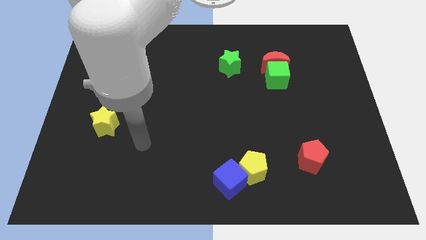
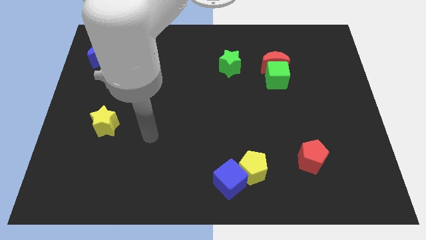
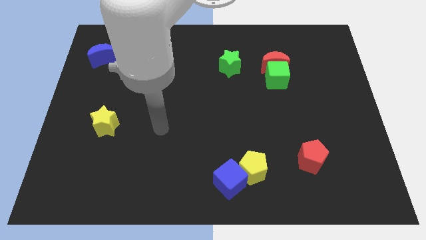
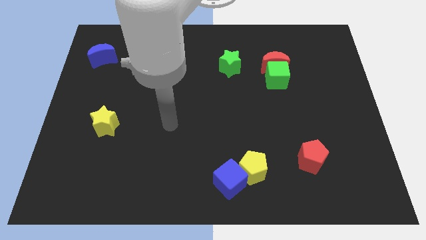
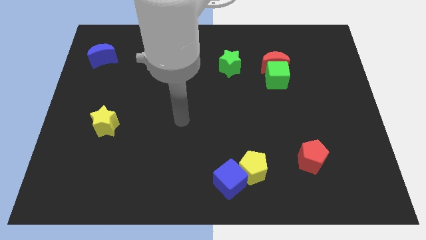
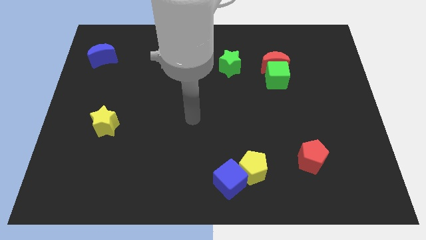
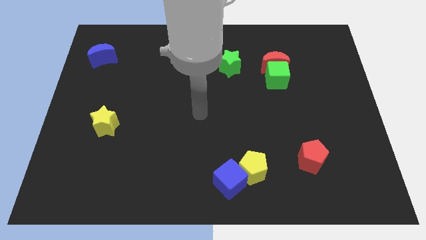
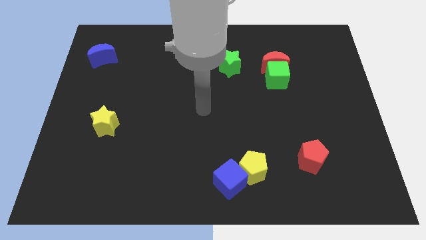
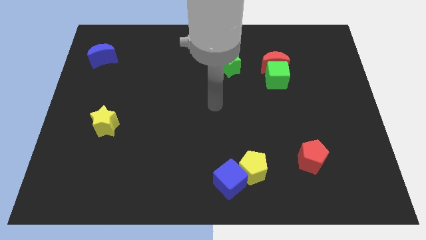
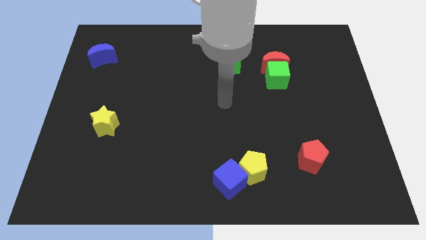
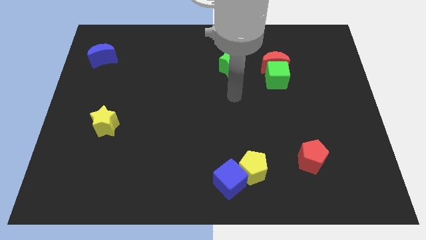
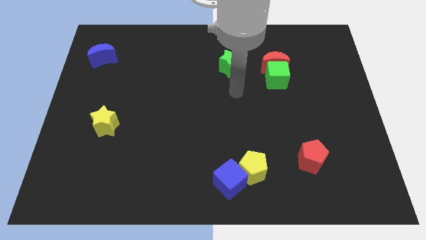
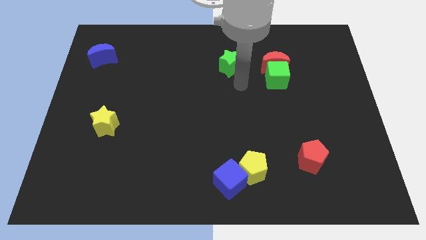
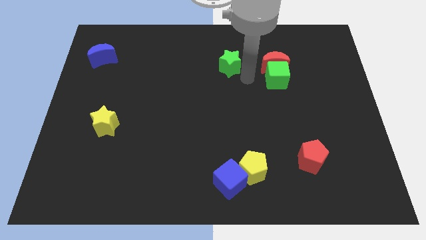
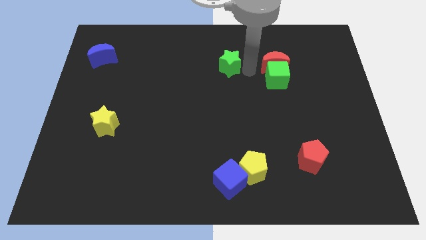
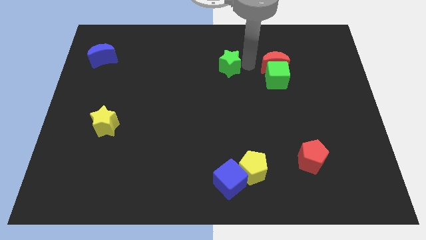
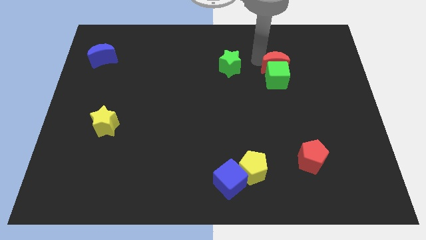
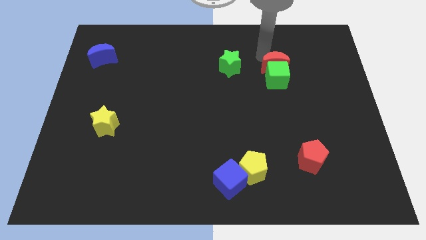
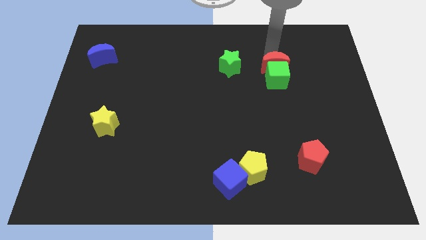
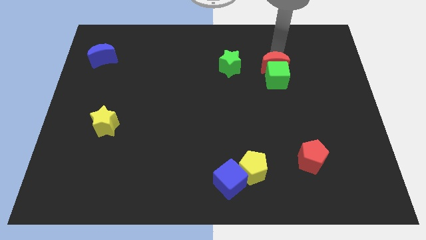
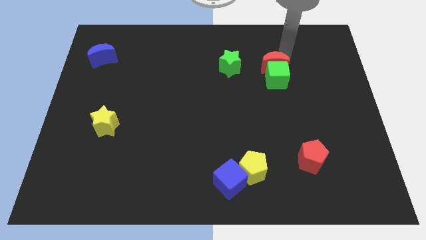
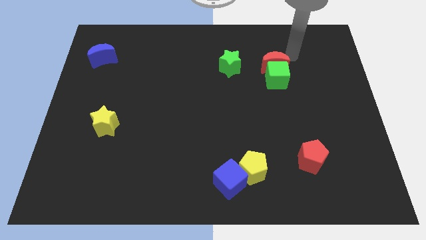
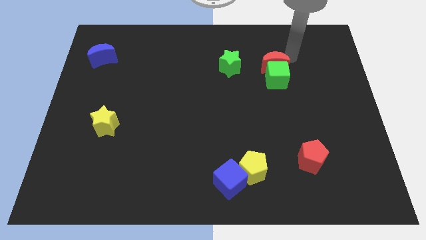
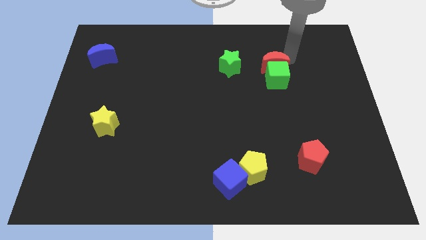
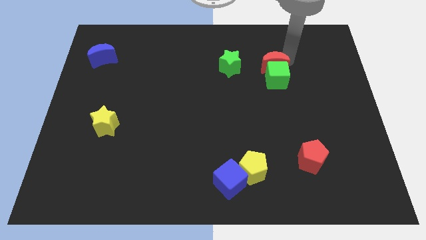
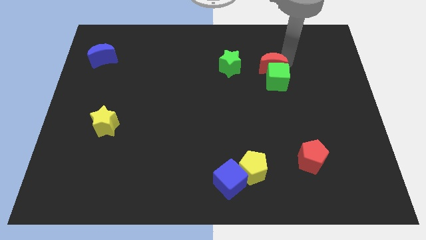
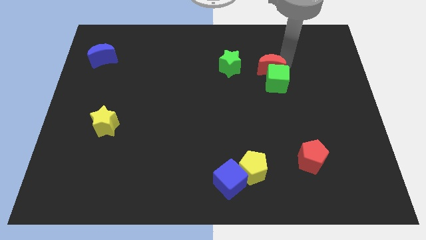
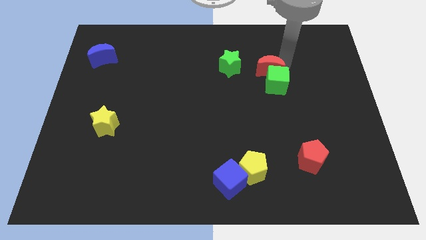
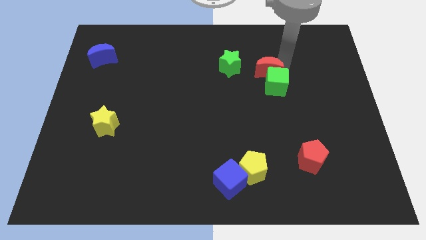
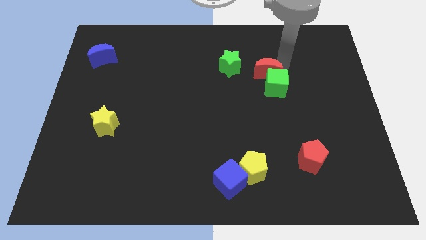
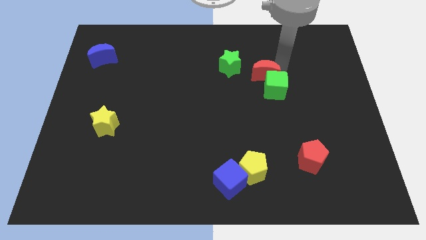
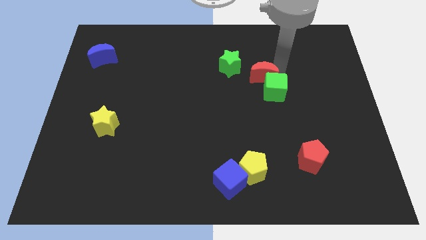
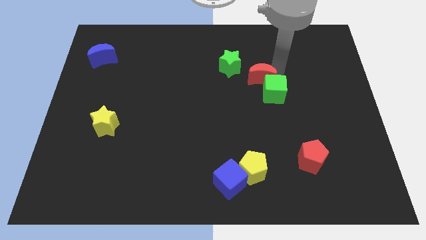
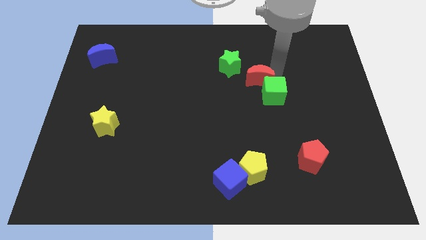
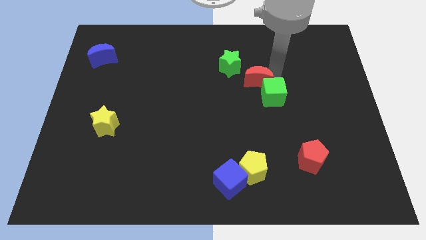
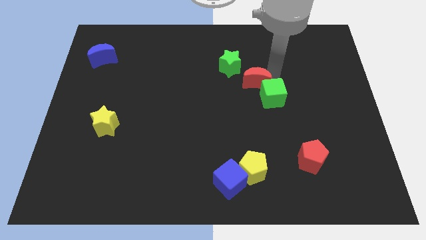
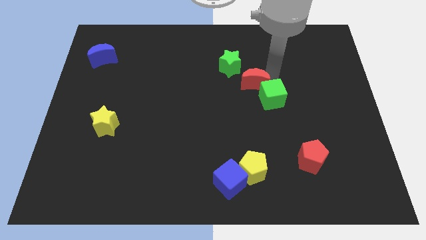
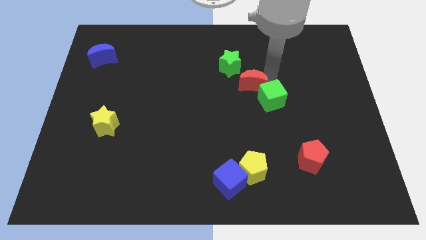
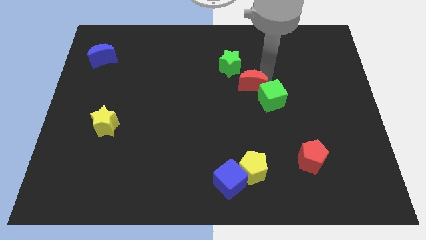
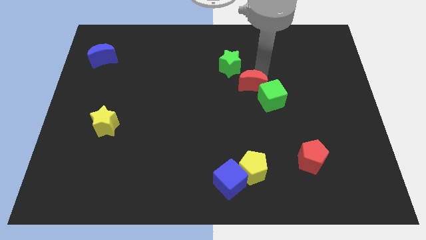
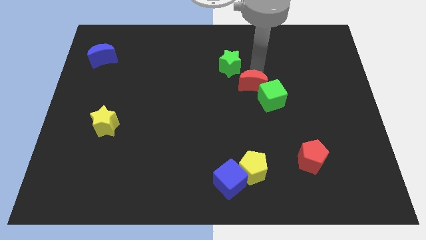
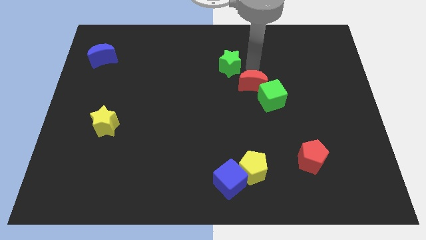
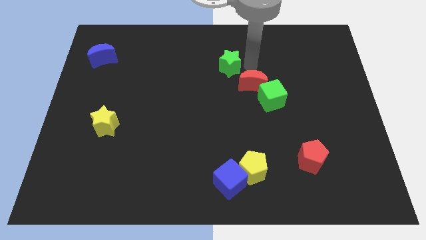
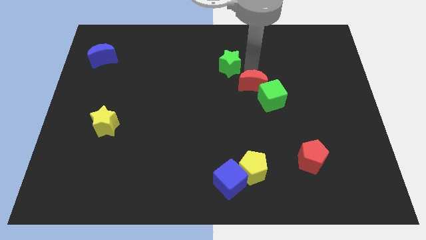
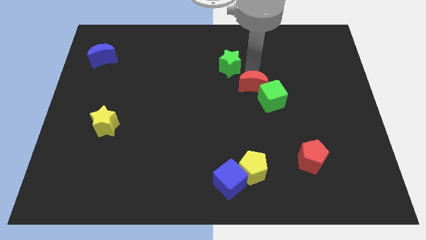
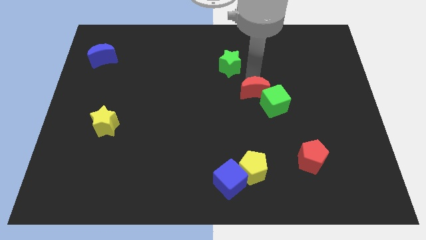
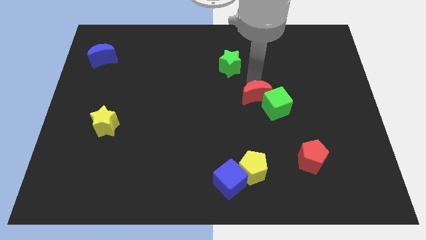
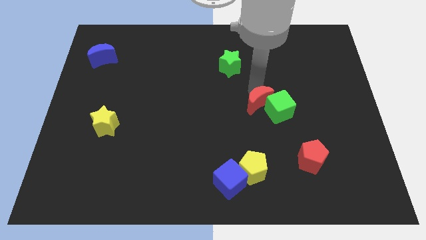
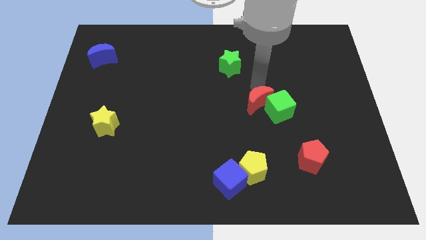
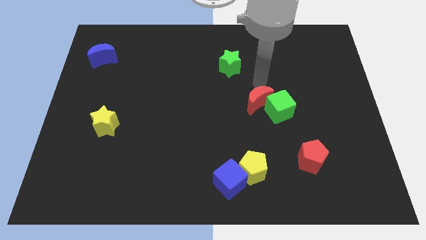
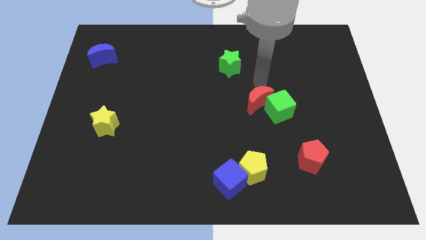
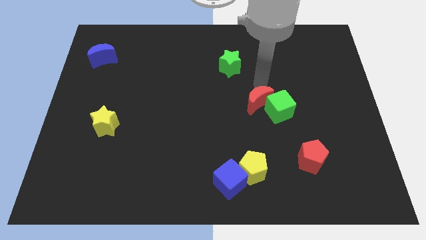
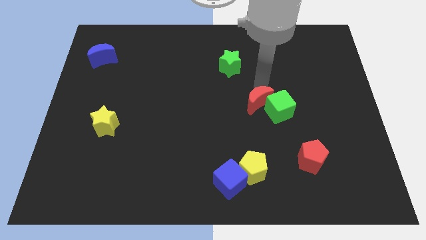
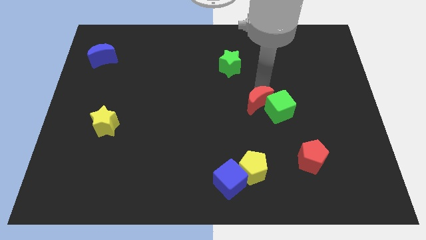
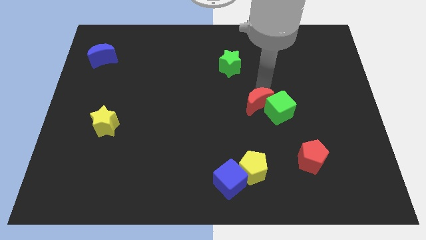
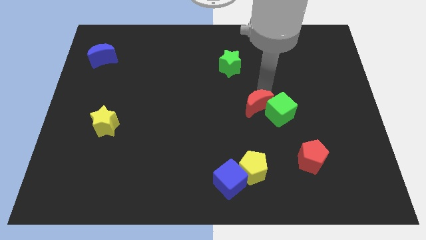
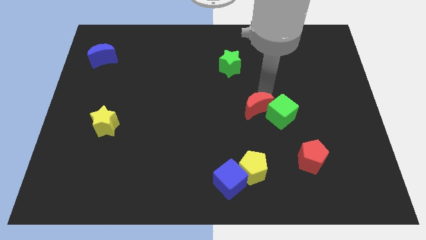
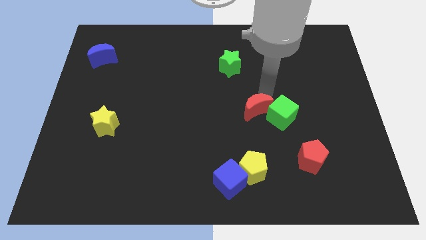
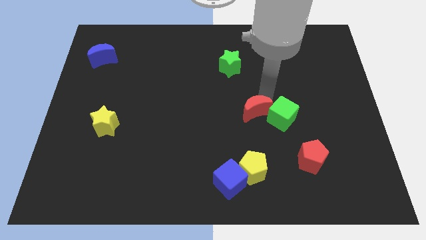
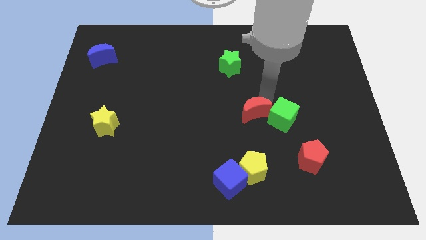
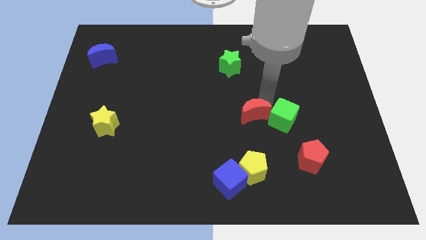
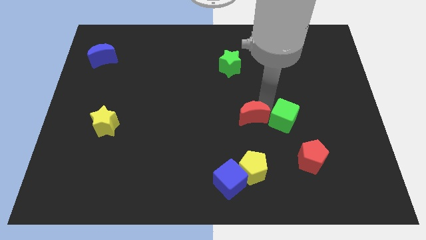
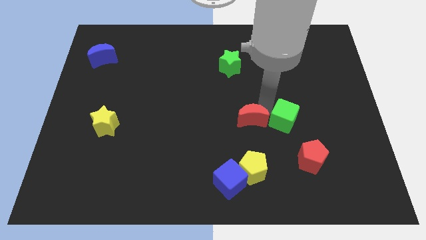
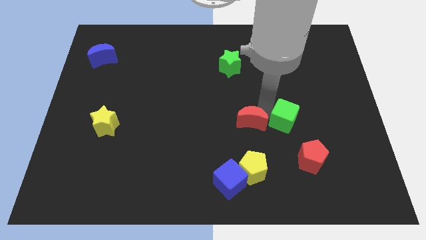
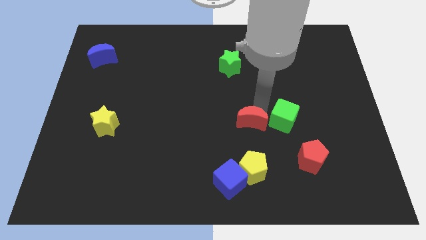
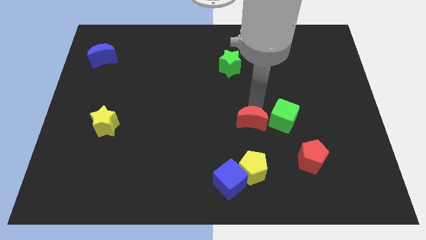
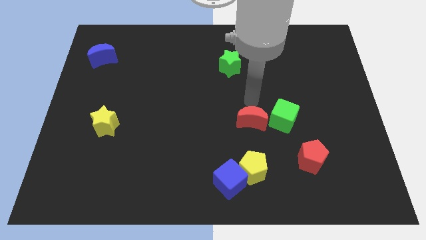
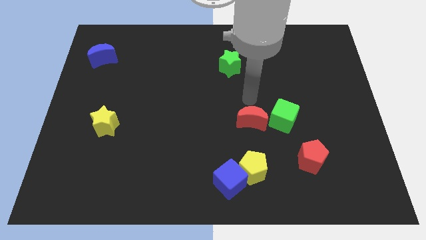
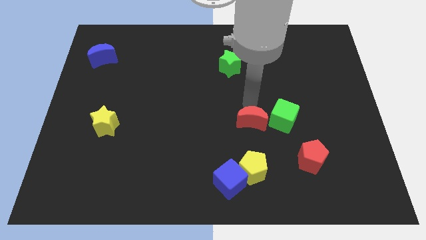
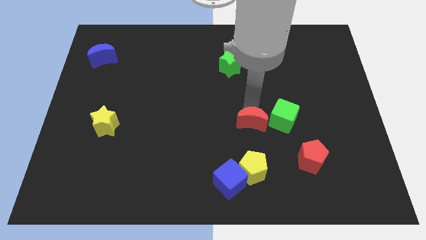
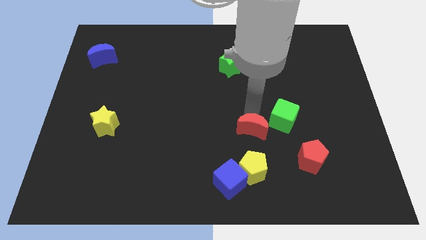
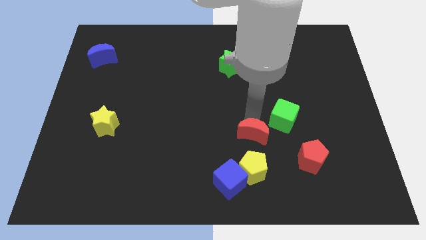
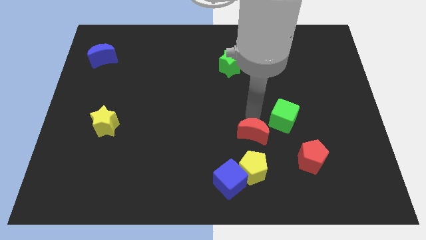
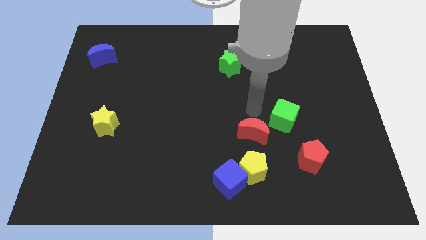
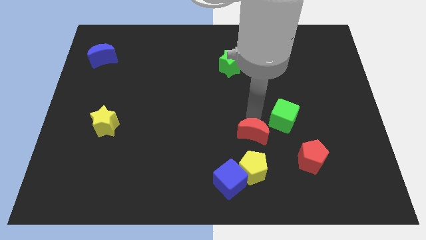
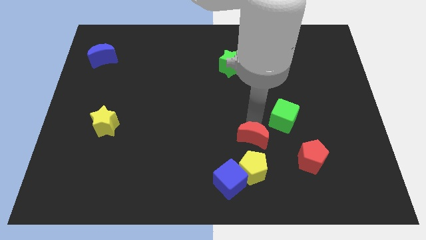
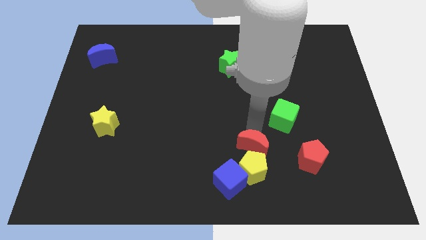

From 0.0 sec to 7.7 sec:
slide the red moon close to the yellow pentagon
